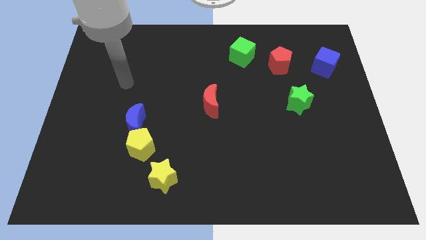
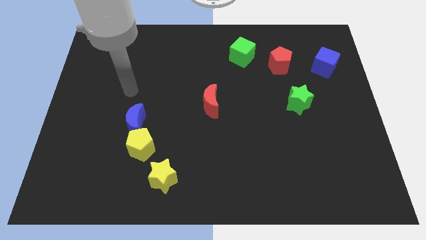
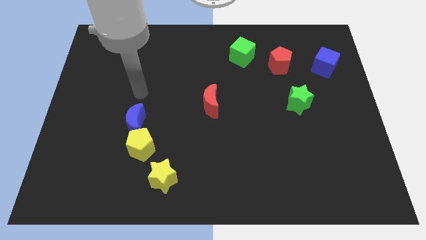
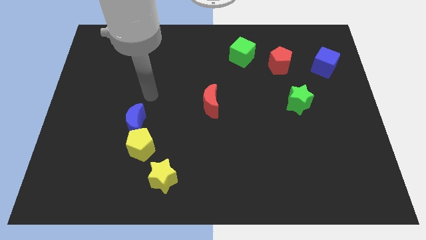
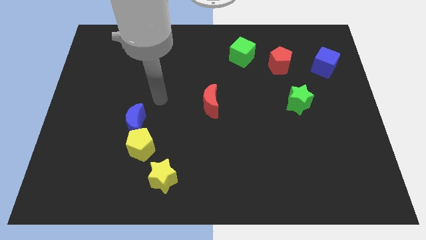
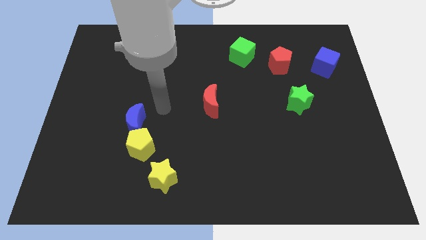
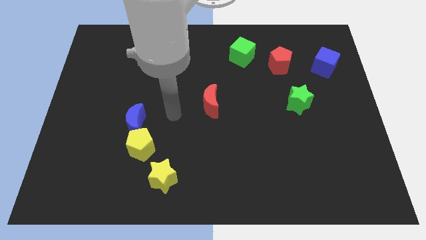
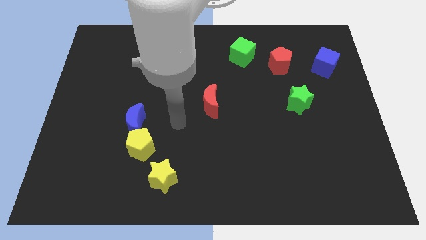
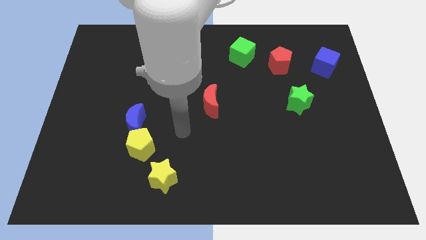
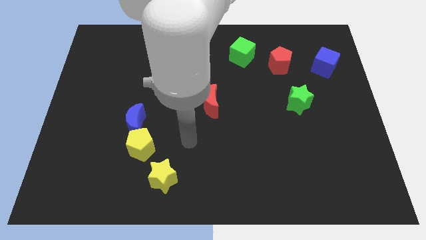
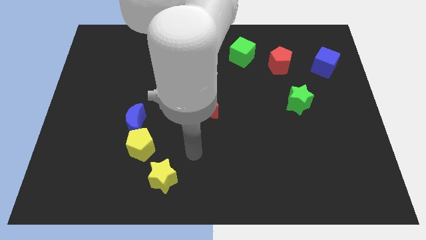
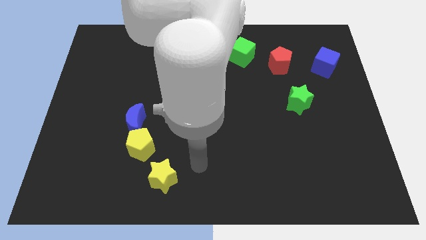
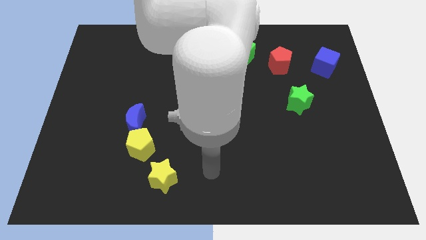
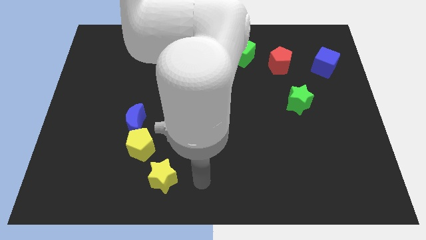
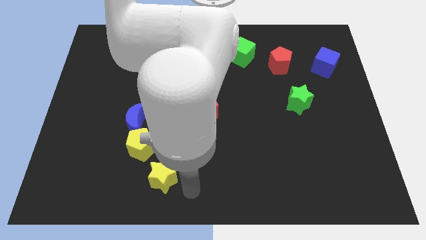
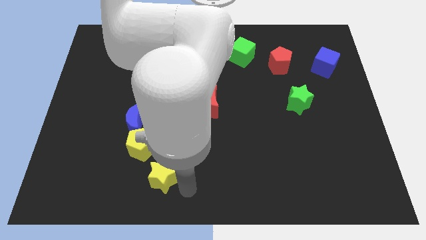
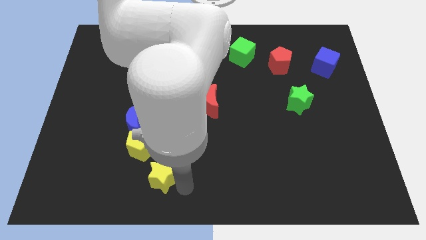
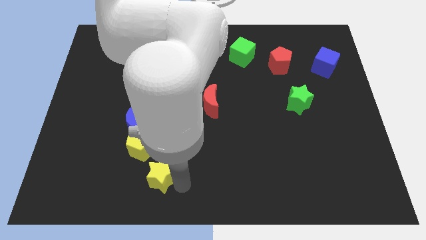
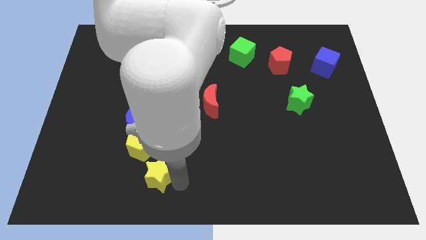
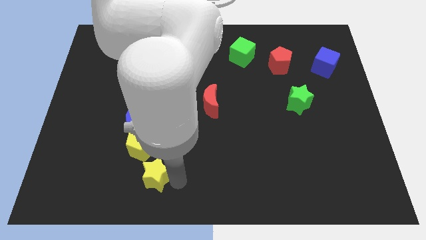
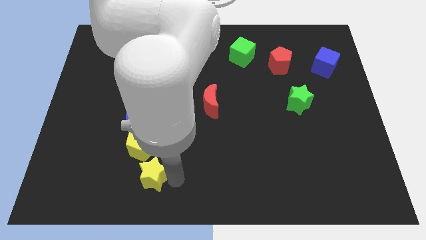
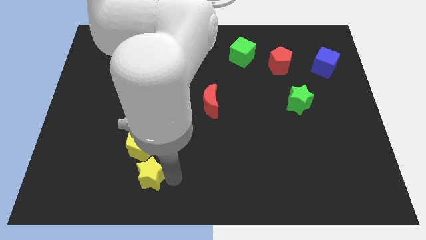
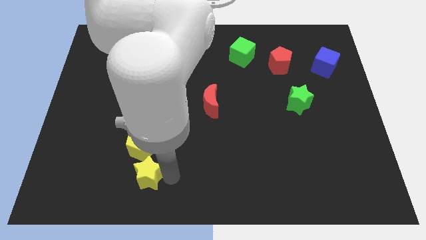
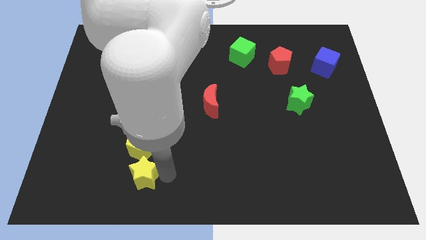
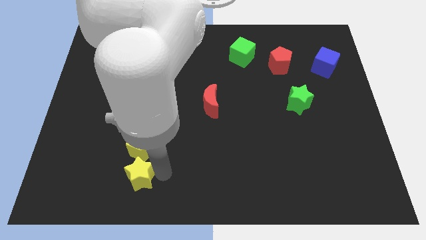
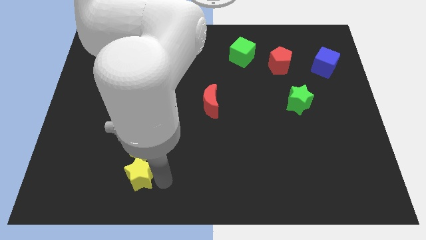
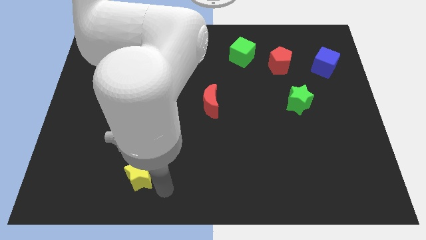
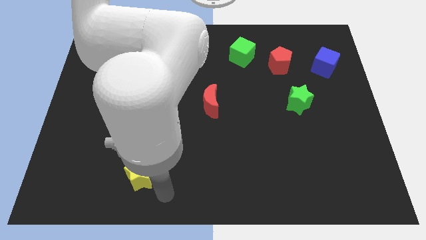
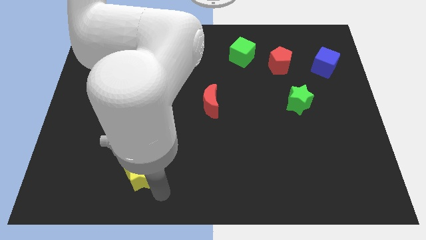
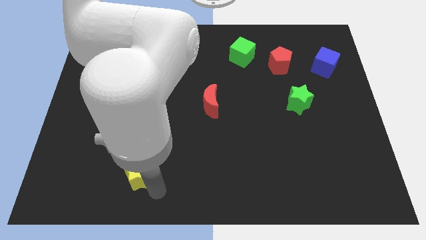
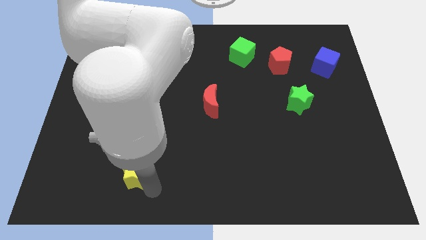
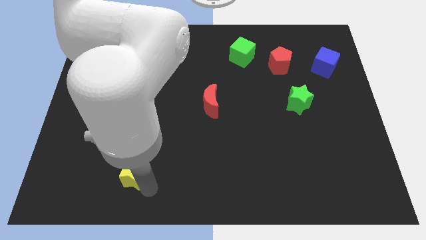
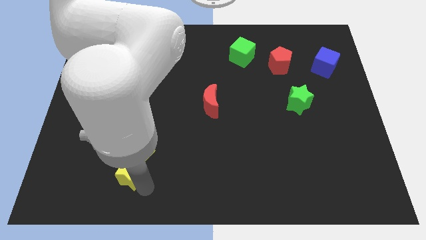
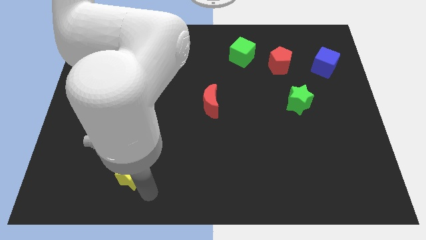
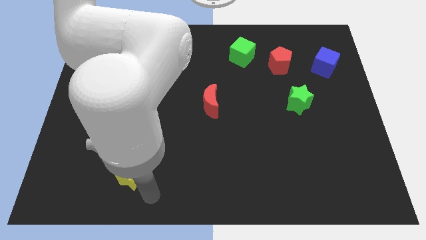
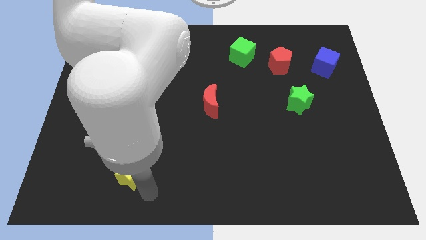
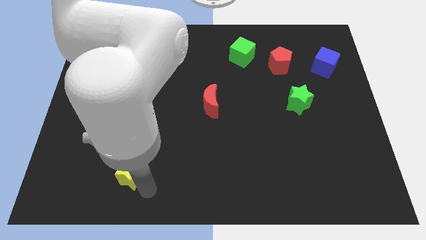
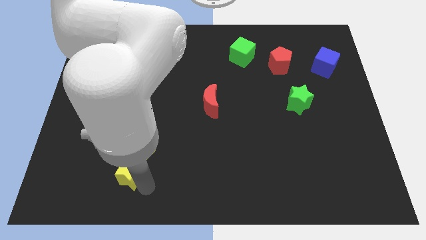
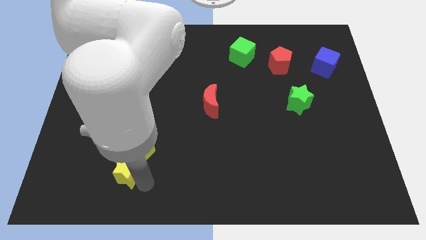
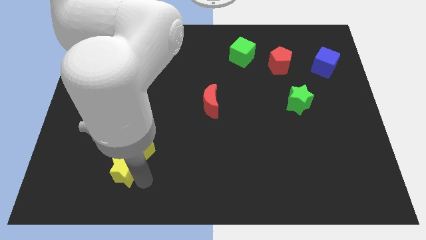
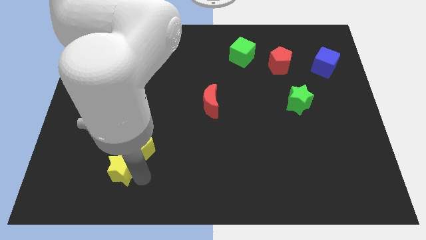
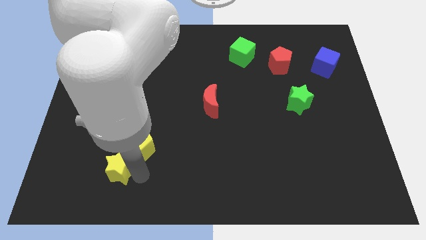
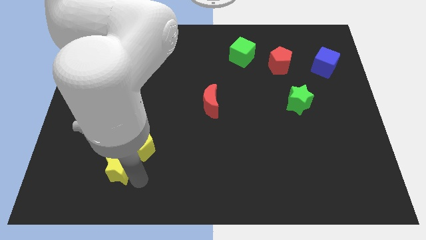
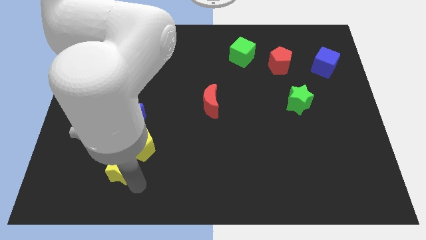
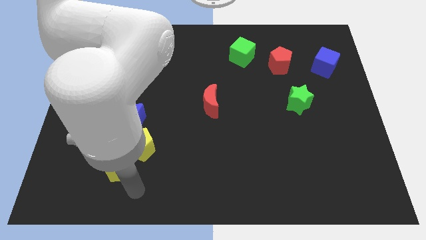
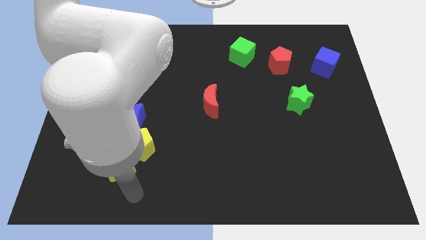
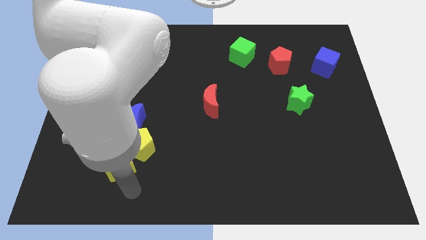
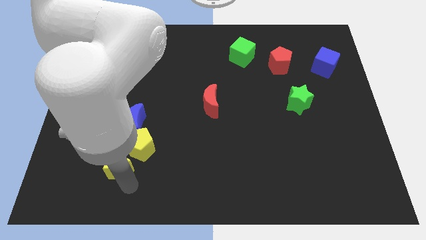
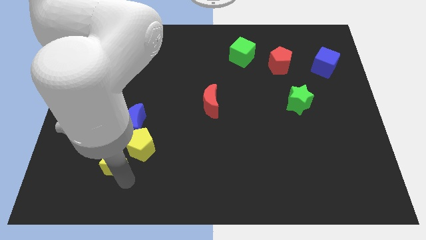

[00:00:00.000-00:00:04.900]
put the yellow star to the left side of the yellow pentagon

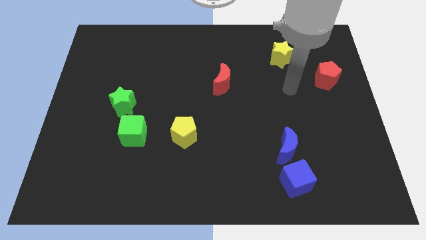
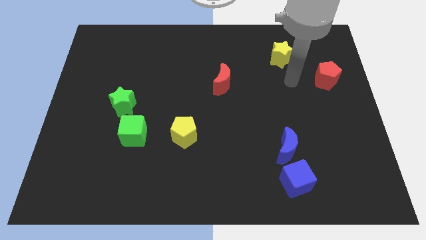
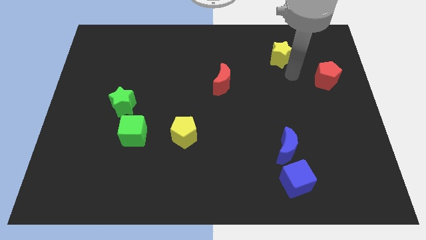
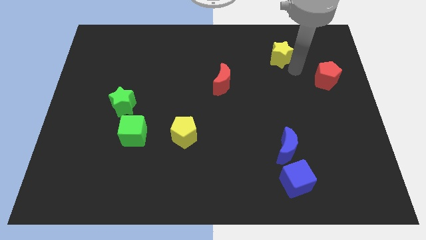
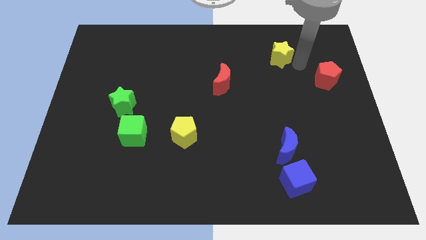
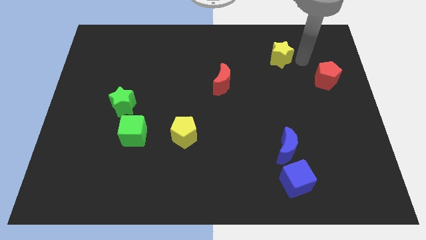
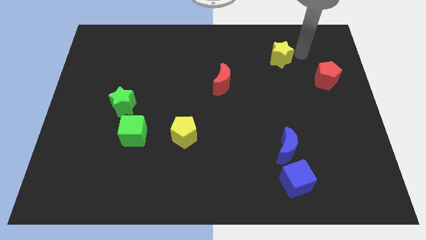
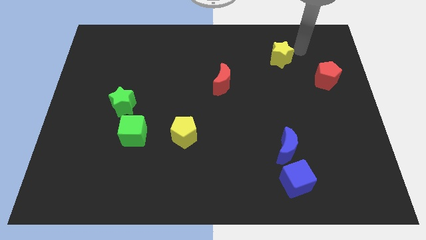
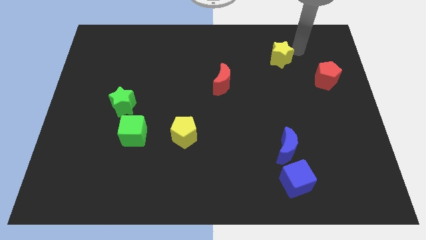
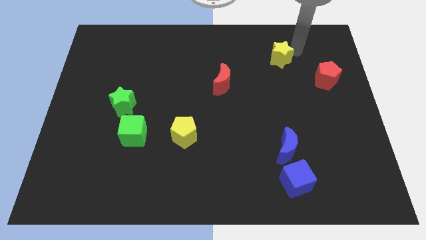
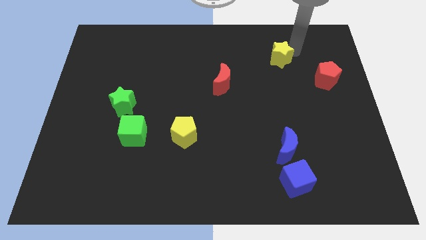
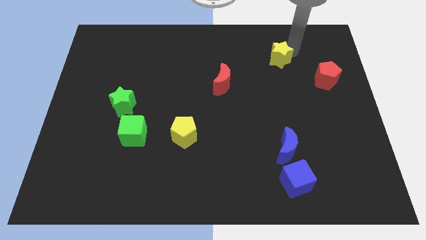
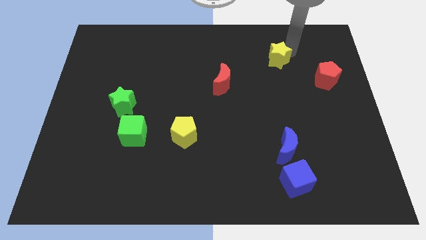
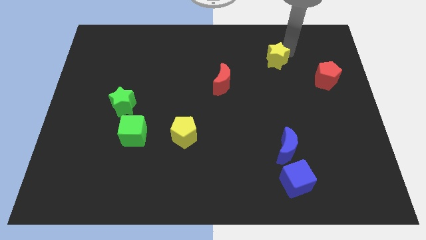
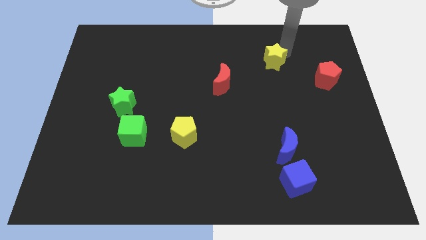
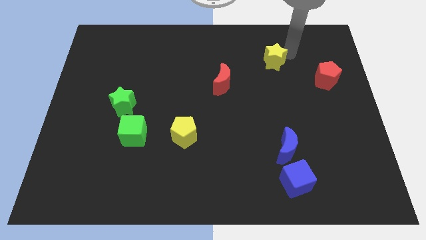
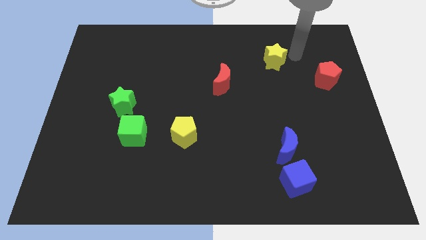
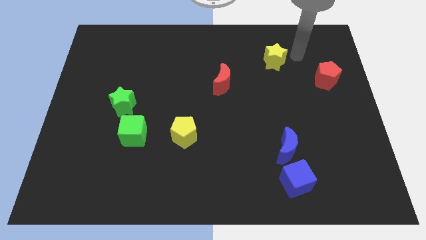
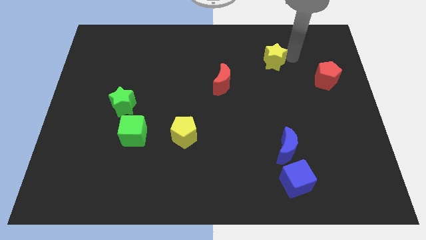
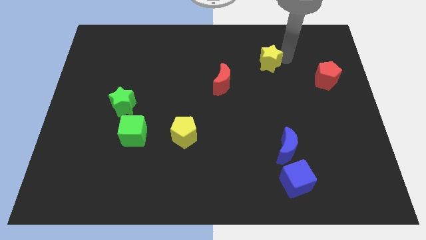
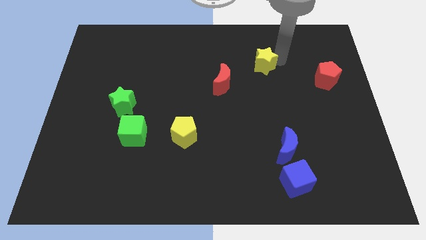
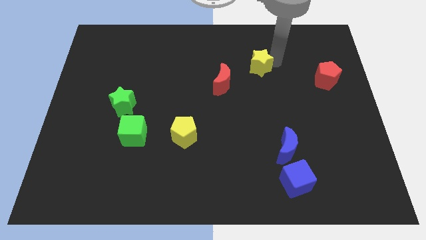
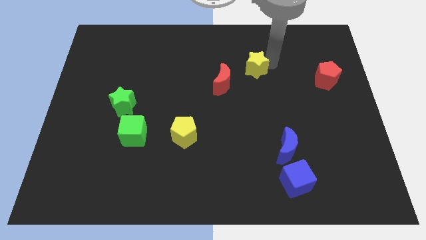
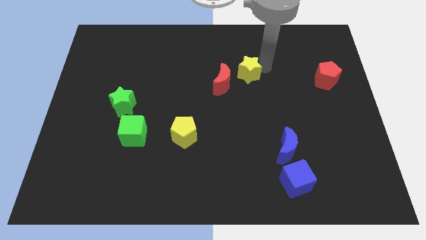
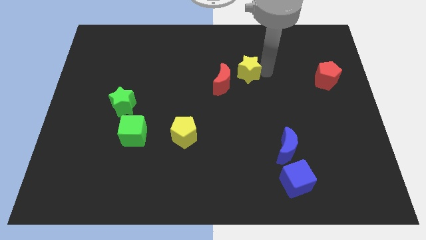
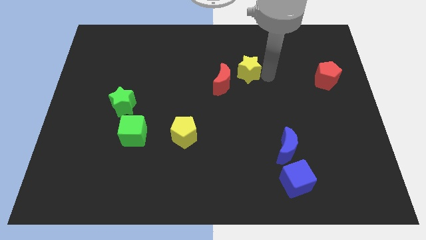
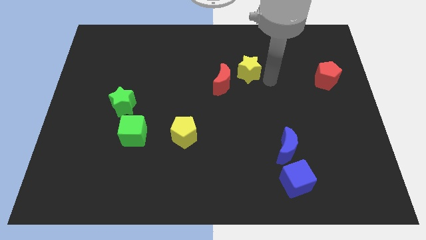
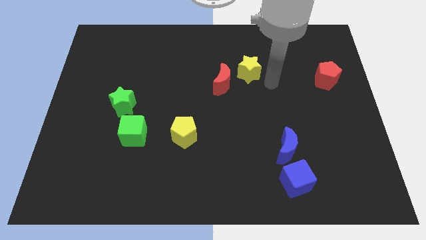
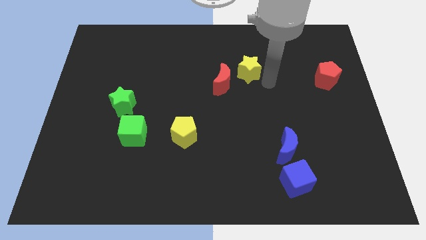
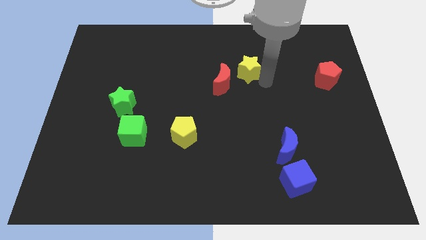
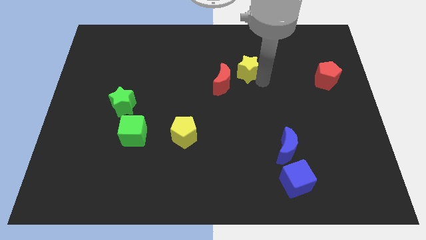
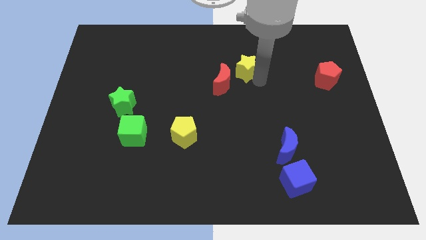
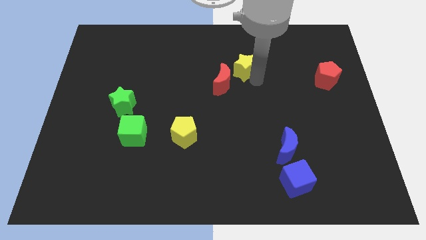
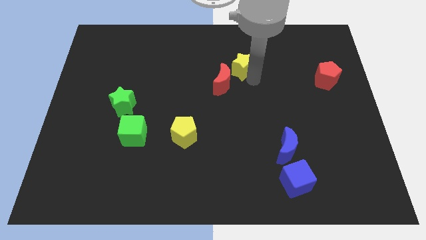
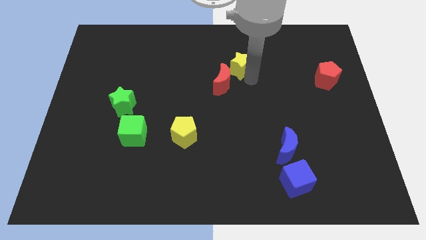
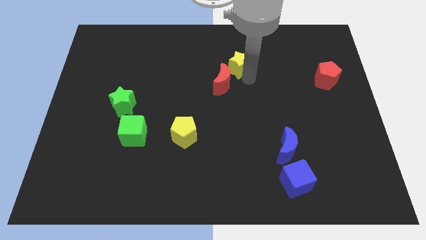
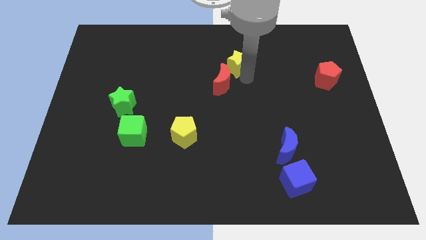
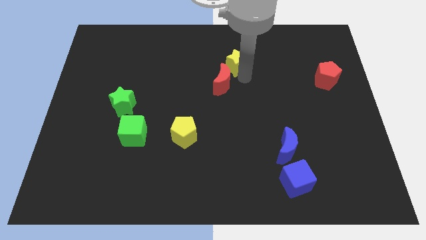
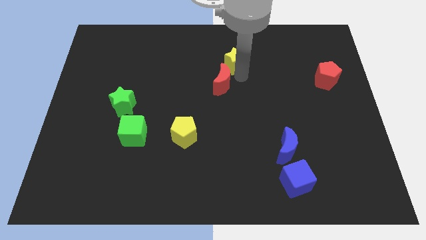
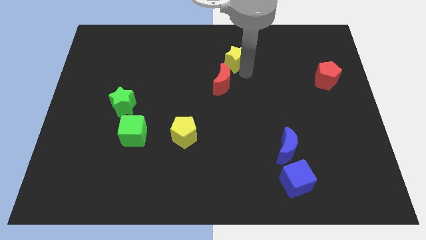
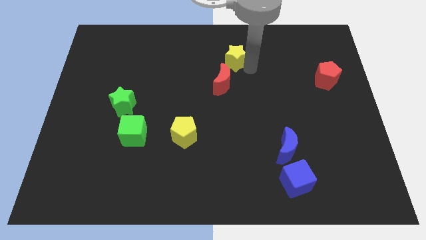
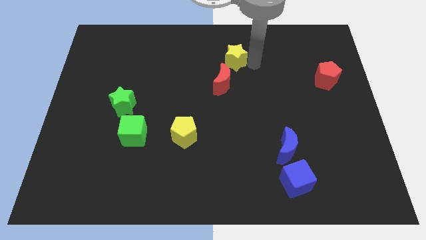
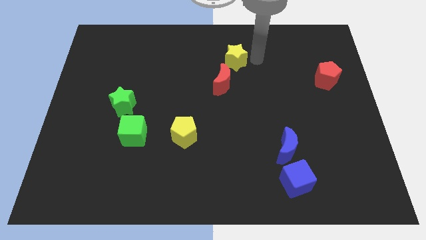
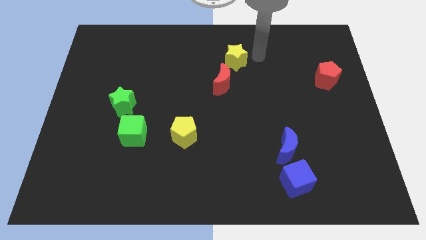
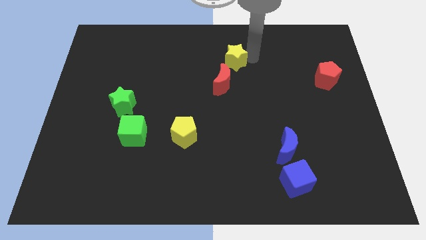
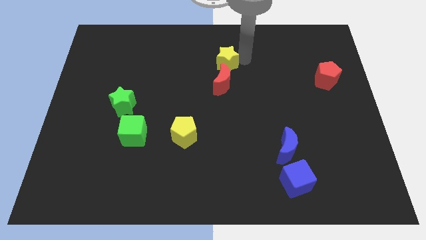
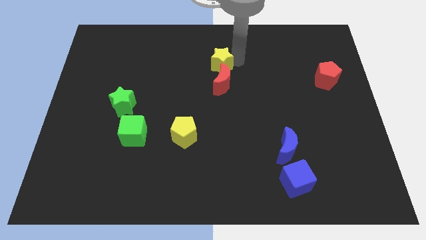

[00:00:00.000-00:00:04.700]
push the yellow star diagonally up and to the left of the red moon
